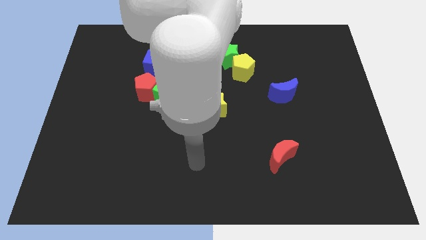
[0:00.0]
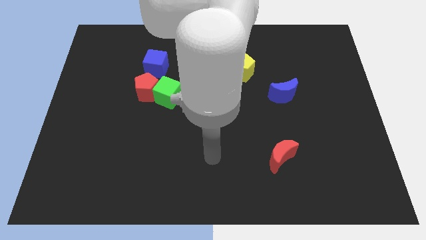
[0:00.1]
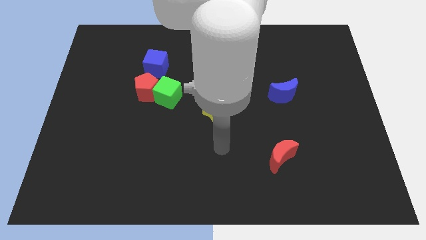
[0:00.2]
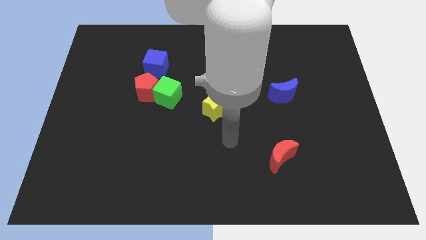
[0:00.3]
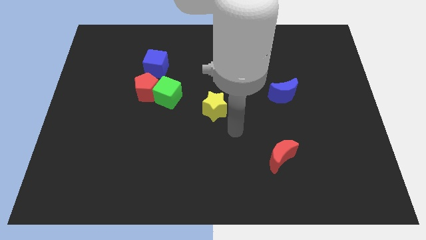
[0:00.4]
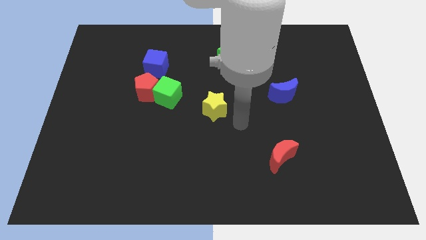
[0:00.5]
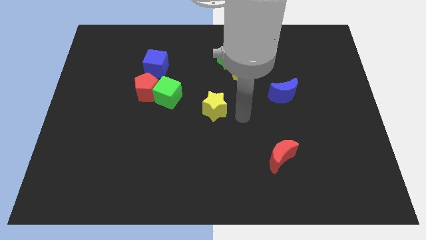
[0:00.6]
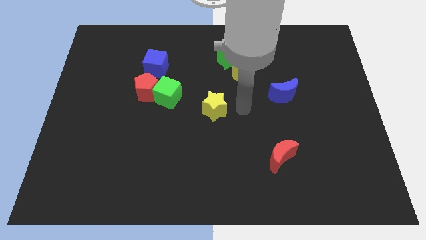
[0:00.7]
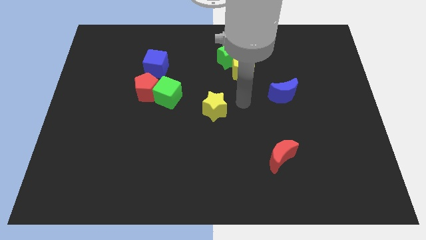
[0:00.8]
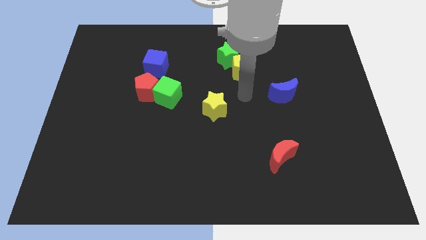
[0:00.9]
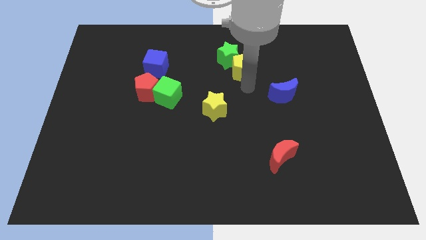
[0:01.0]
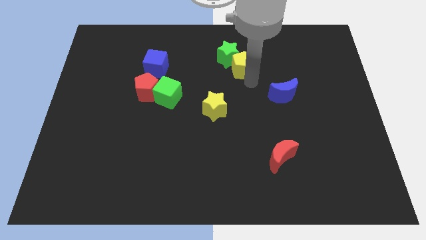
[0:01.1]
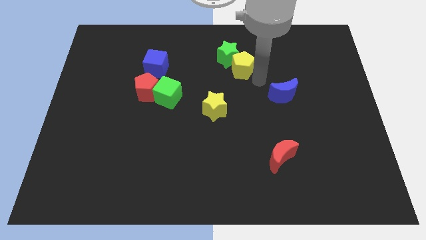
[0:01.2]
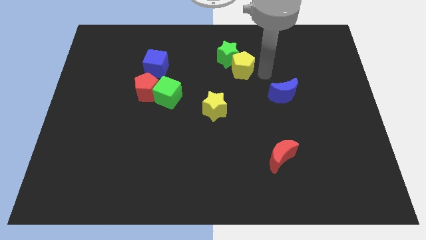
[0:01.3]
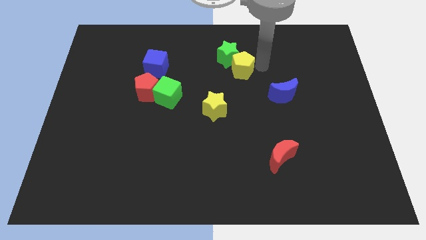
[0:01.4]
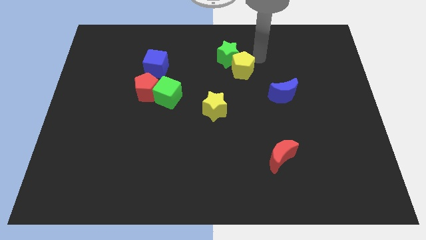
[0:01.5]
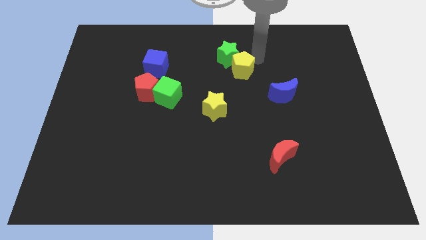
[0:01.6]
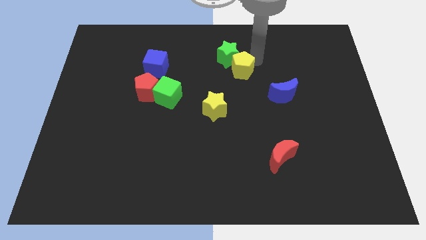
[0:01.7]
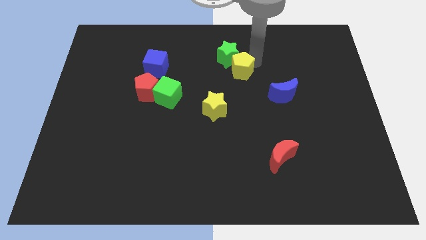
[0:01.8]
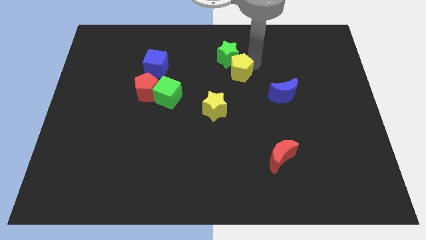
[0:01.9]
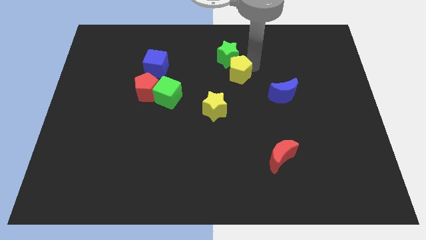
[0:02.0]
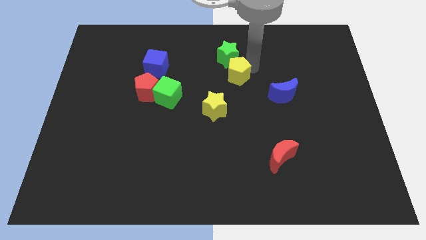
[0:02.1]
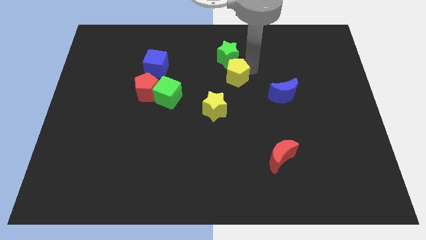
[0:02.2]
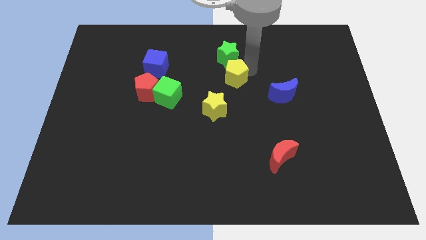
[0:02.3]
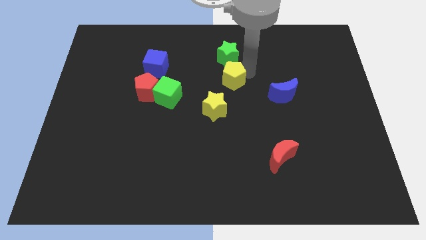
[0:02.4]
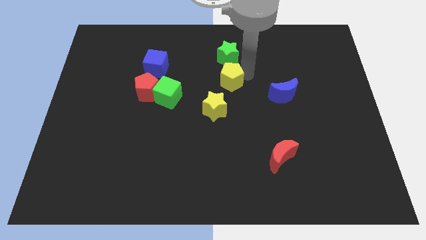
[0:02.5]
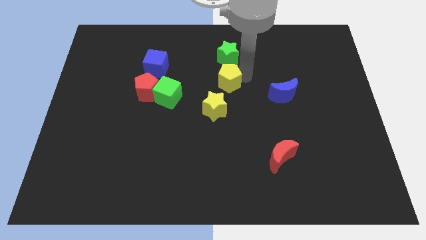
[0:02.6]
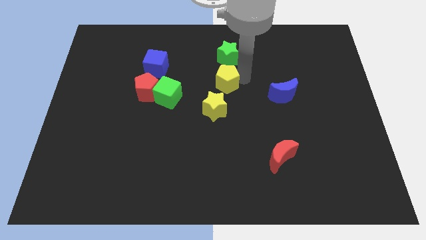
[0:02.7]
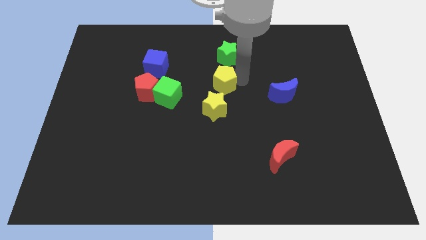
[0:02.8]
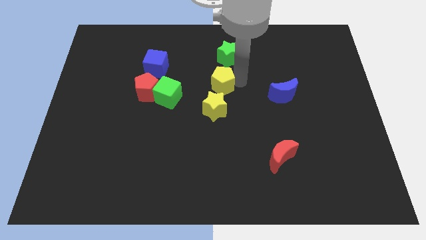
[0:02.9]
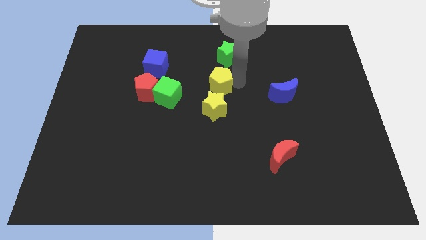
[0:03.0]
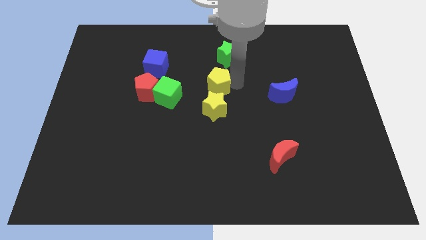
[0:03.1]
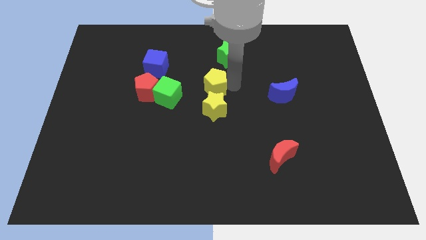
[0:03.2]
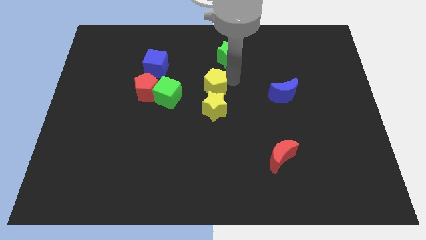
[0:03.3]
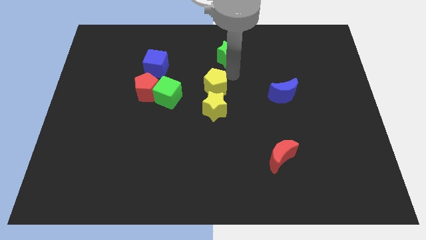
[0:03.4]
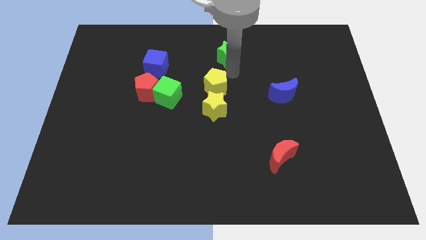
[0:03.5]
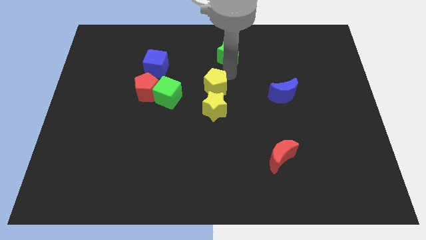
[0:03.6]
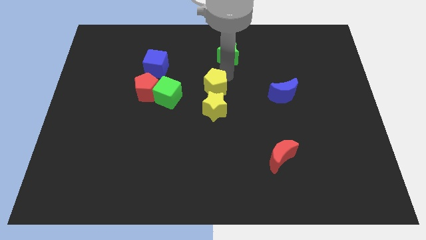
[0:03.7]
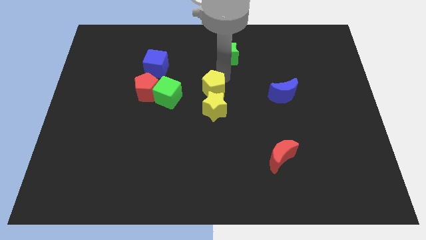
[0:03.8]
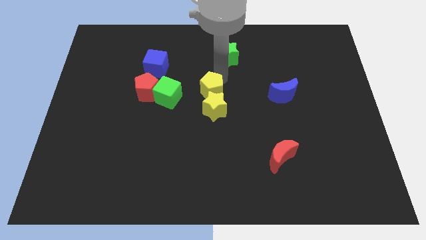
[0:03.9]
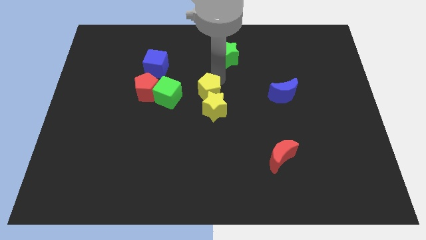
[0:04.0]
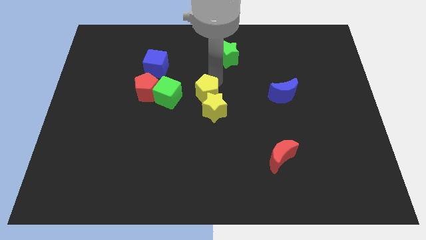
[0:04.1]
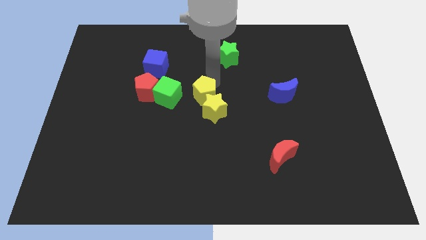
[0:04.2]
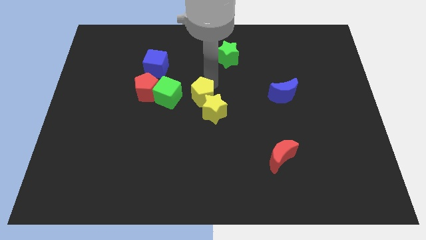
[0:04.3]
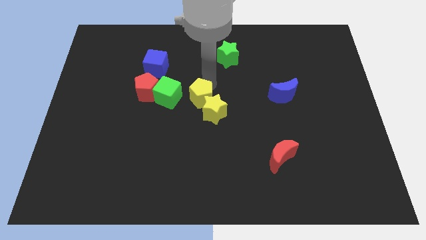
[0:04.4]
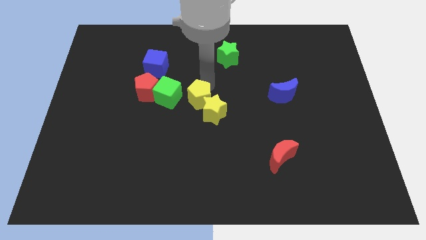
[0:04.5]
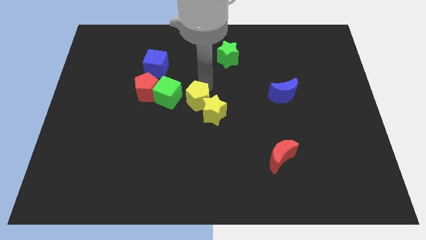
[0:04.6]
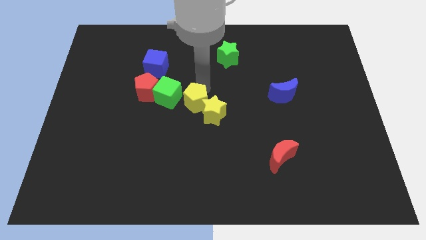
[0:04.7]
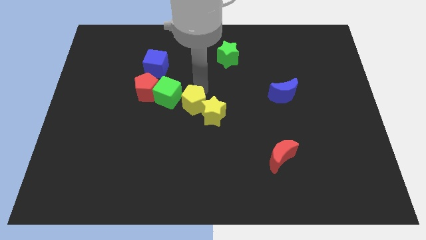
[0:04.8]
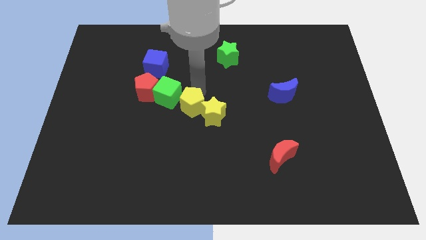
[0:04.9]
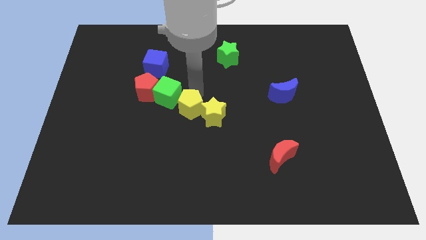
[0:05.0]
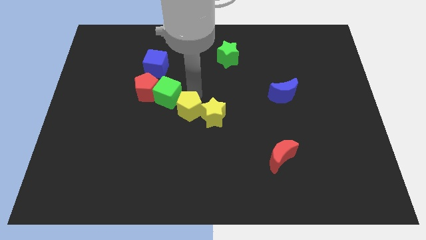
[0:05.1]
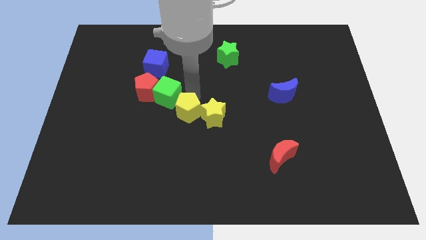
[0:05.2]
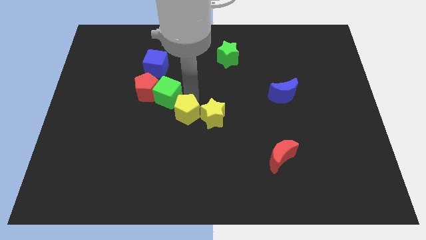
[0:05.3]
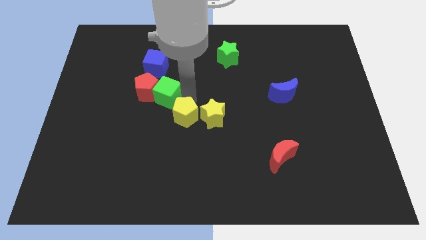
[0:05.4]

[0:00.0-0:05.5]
push the yellow pentagon diagonally down and to the left

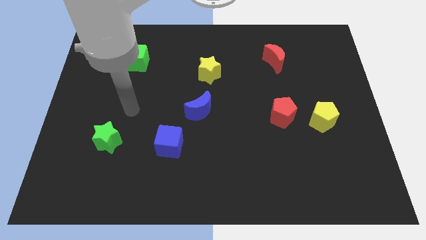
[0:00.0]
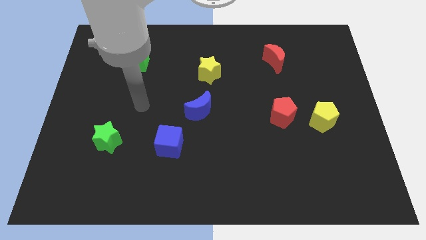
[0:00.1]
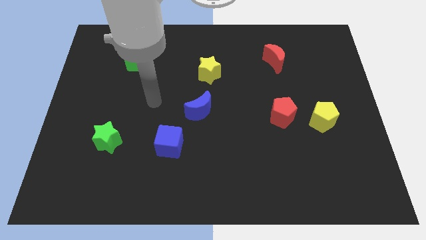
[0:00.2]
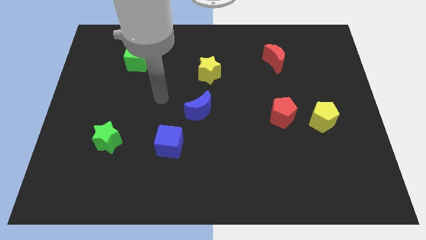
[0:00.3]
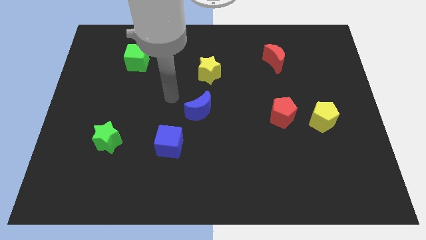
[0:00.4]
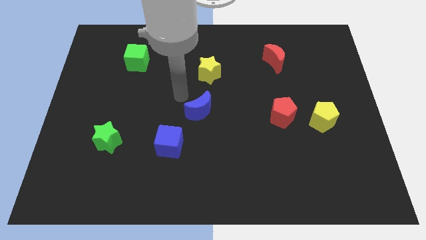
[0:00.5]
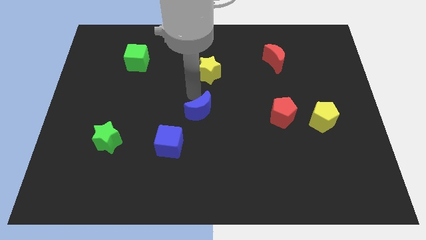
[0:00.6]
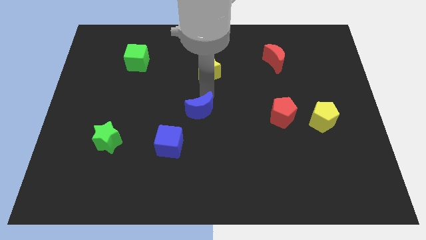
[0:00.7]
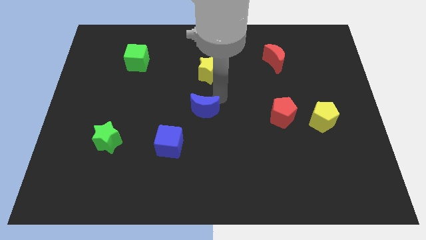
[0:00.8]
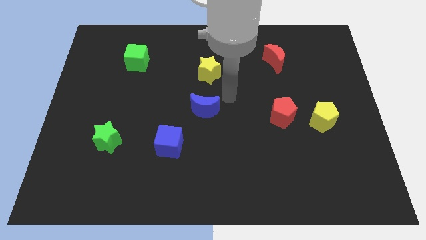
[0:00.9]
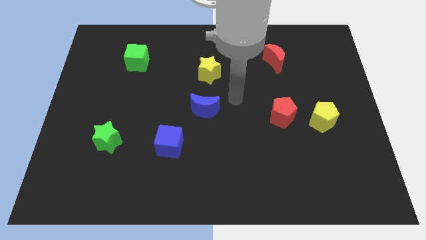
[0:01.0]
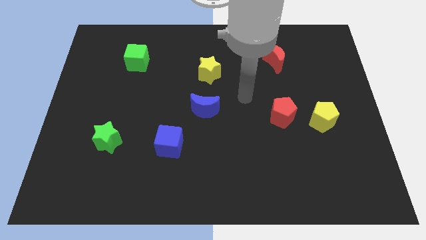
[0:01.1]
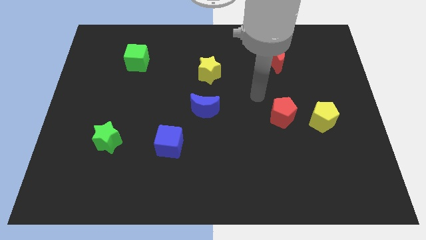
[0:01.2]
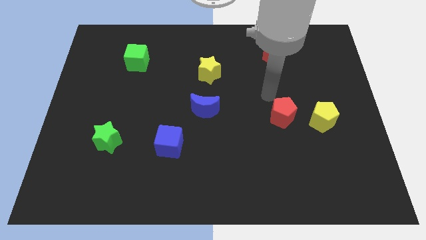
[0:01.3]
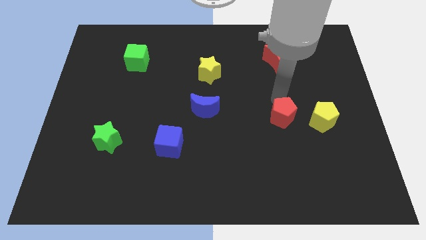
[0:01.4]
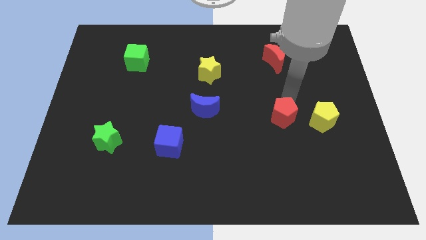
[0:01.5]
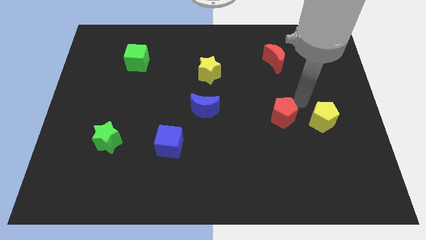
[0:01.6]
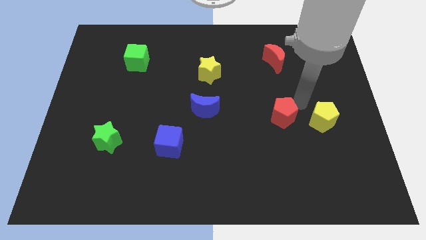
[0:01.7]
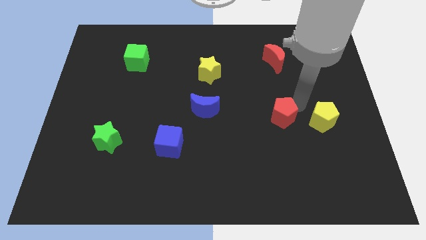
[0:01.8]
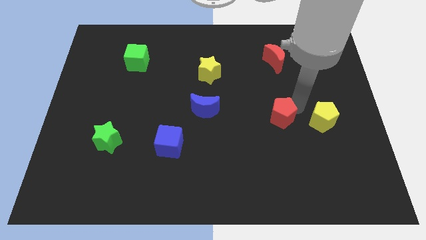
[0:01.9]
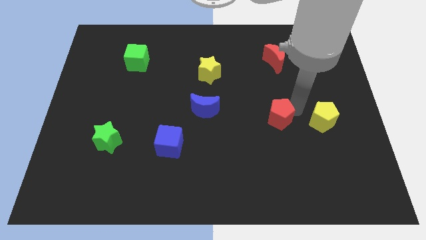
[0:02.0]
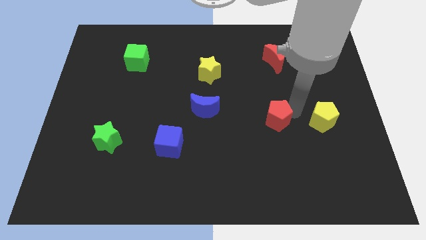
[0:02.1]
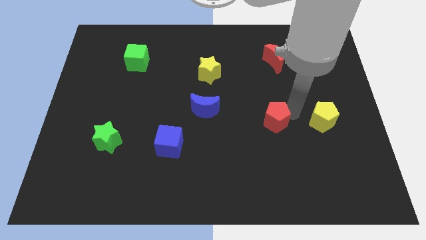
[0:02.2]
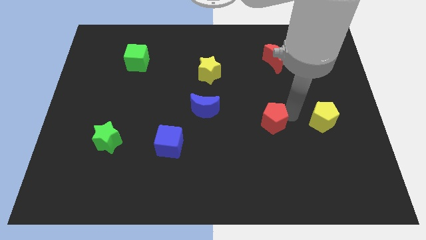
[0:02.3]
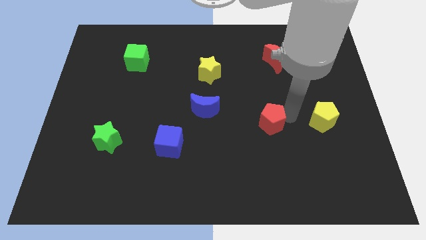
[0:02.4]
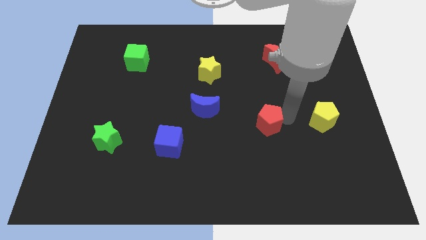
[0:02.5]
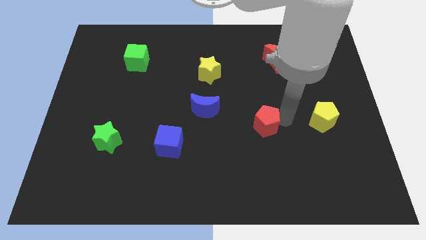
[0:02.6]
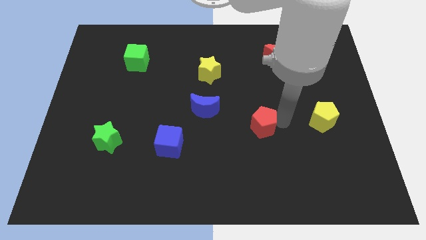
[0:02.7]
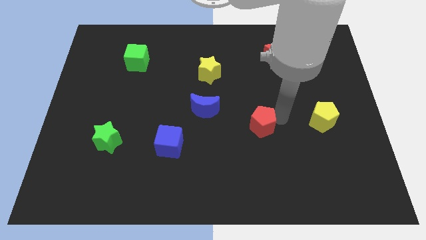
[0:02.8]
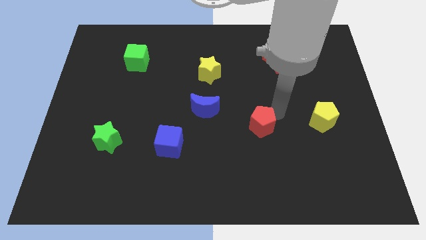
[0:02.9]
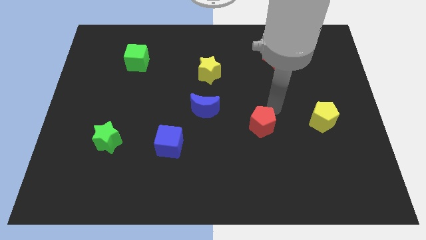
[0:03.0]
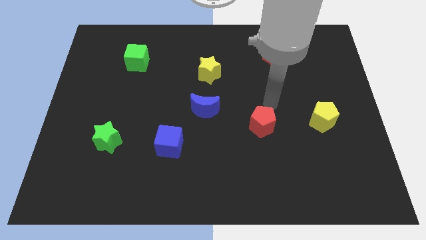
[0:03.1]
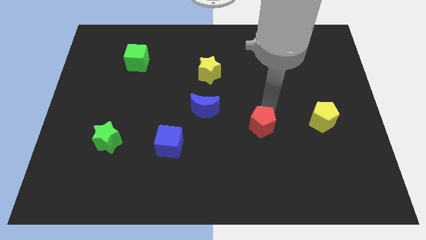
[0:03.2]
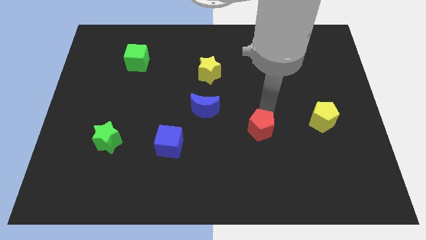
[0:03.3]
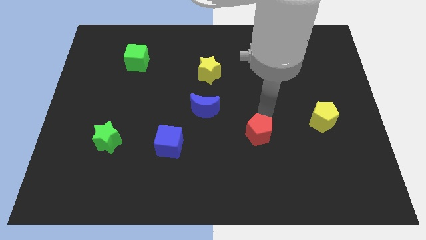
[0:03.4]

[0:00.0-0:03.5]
slightly slide the red pentagon diagonally downwards and to the left
